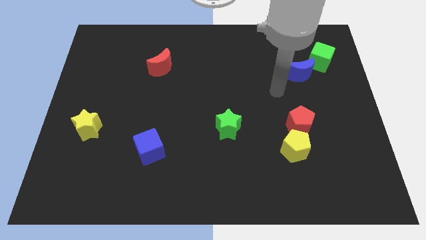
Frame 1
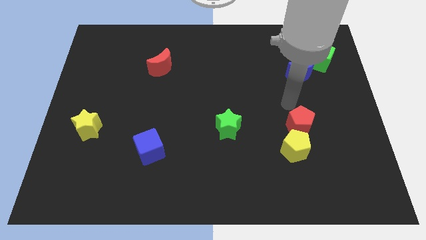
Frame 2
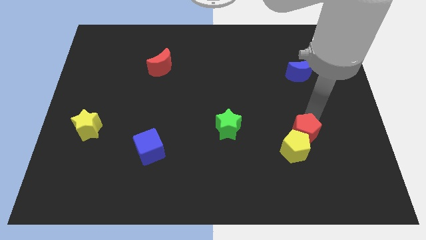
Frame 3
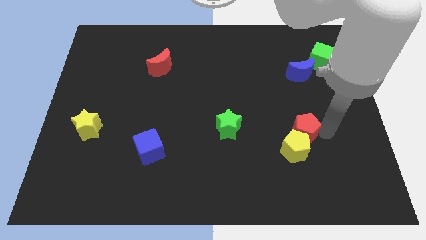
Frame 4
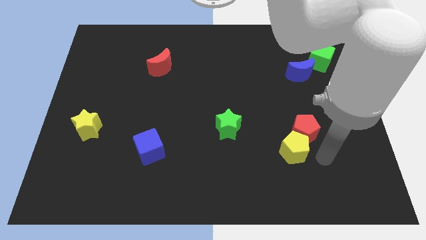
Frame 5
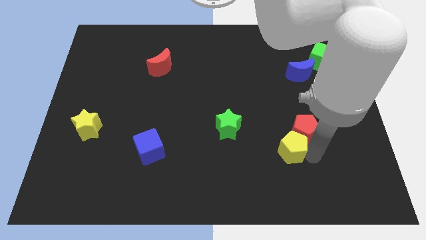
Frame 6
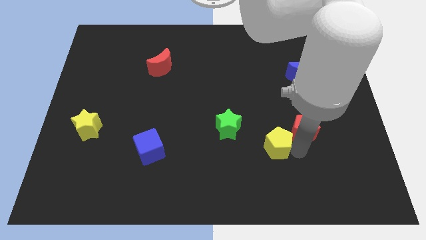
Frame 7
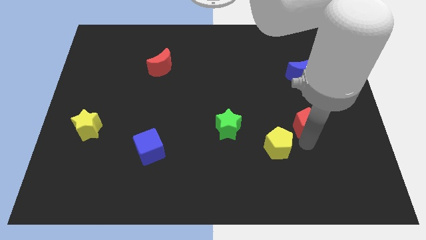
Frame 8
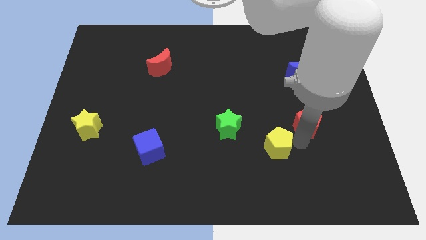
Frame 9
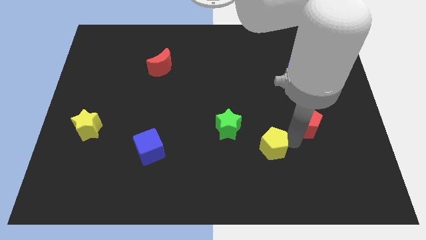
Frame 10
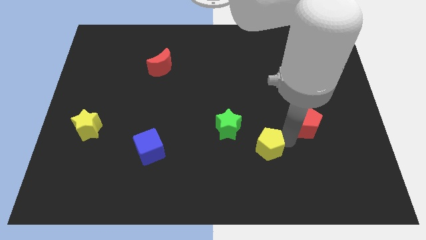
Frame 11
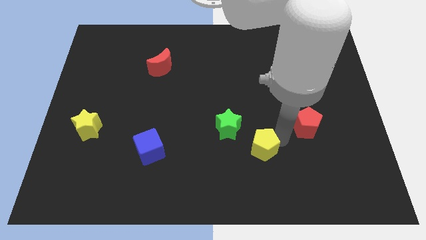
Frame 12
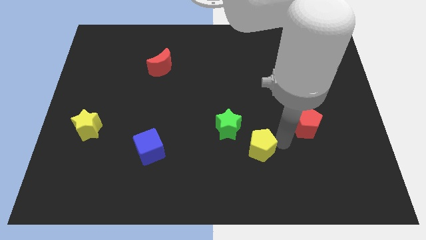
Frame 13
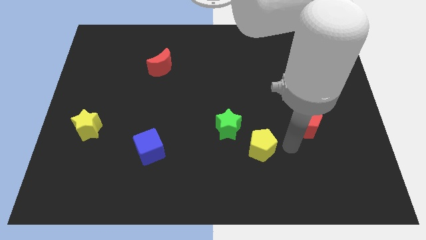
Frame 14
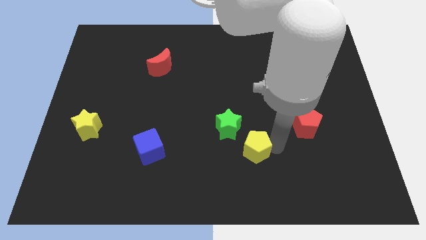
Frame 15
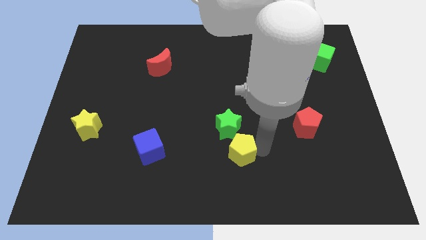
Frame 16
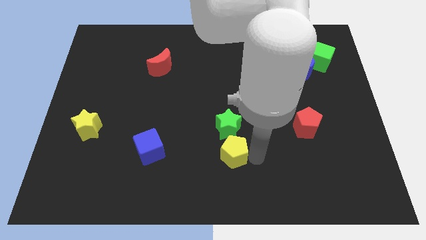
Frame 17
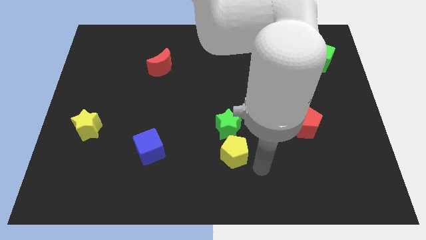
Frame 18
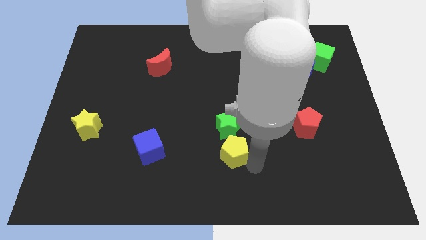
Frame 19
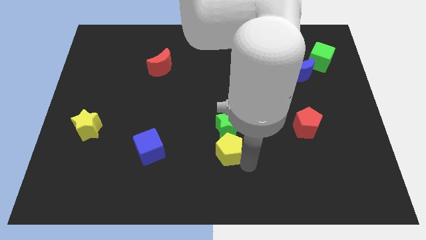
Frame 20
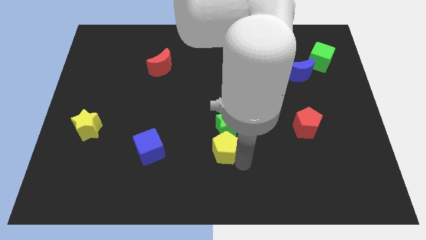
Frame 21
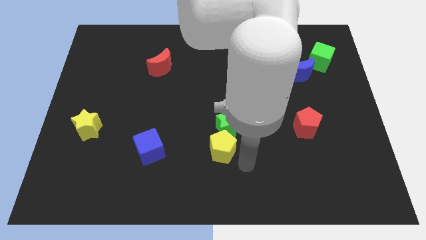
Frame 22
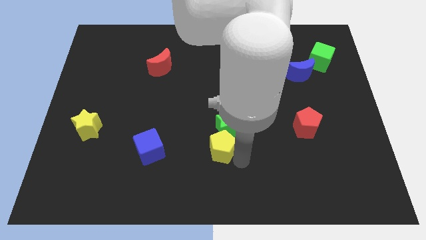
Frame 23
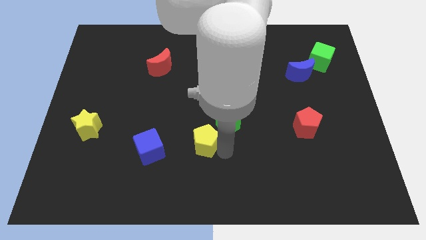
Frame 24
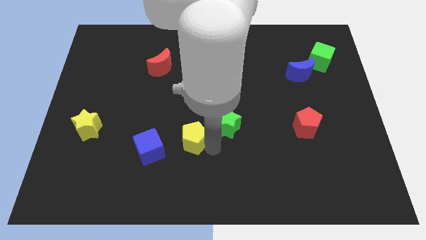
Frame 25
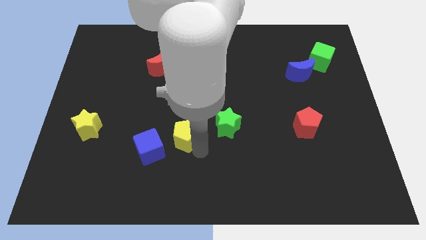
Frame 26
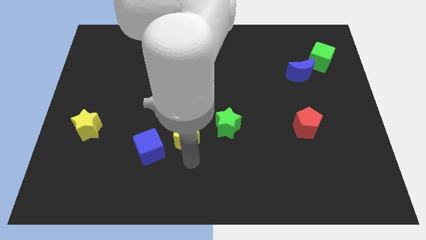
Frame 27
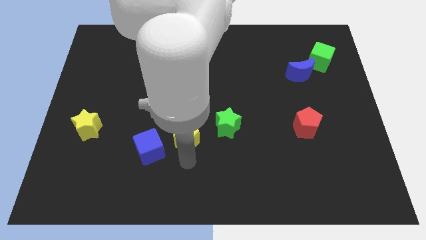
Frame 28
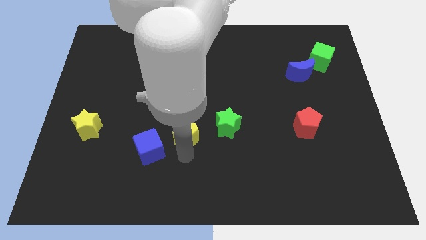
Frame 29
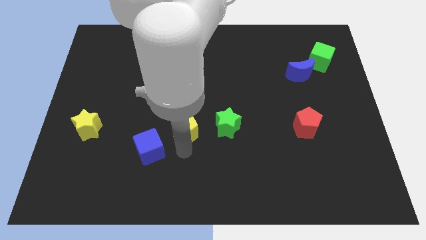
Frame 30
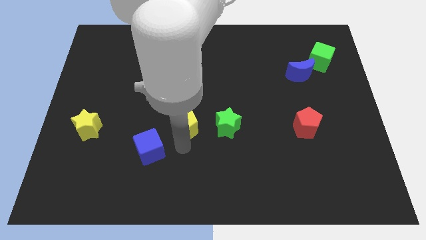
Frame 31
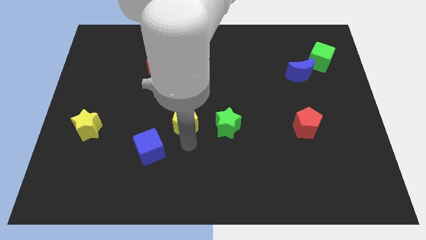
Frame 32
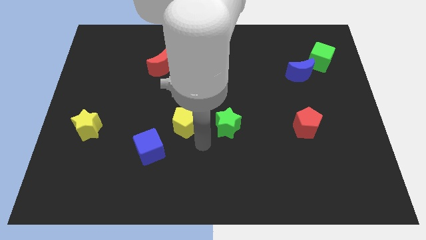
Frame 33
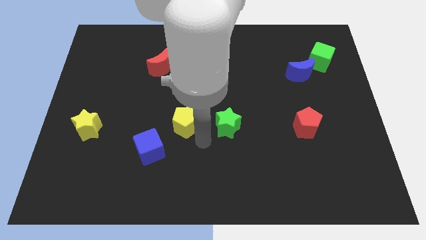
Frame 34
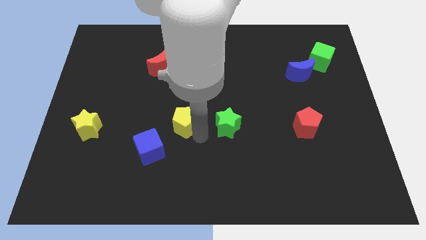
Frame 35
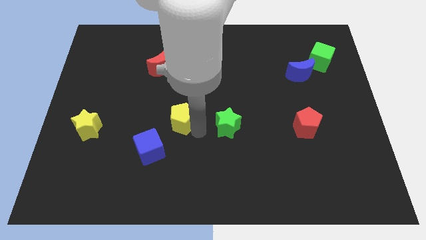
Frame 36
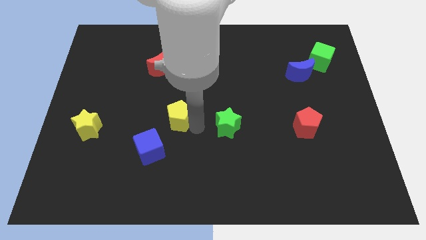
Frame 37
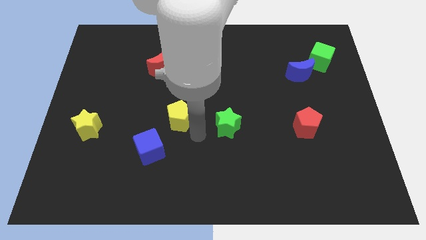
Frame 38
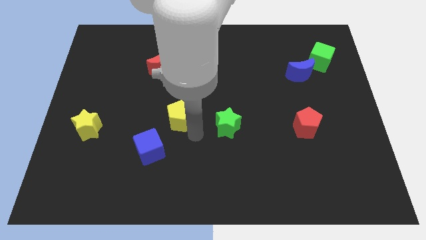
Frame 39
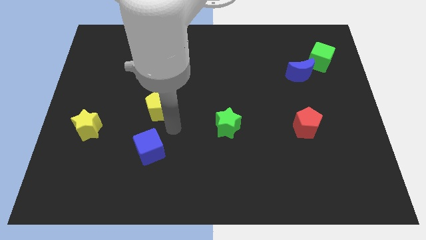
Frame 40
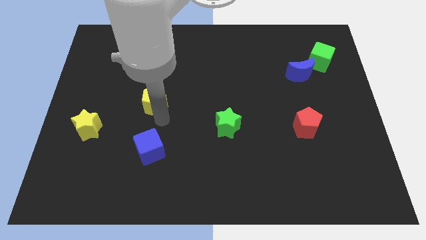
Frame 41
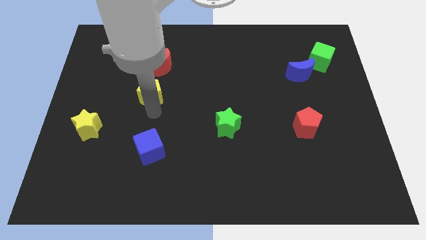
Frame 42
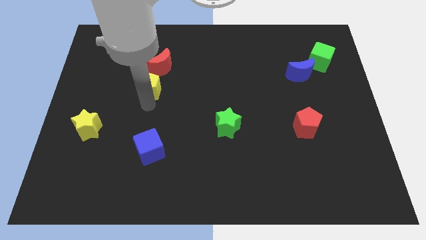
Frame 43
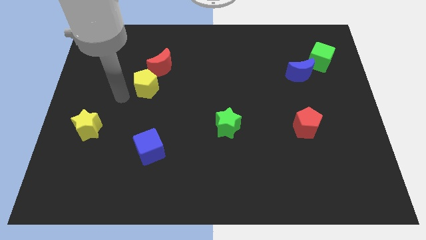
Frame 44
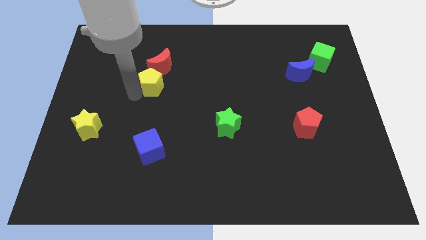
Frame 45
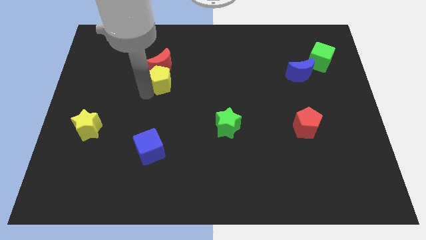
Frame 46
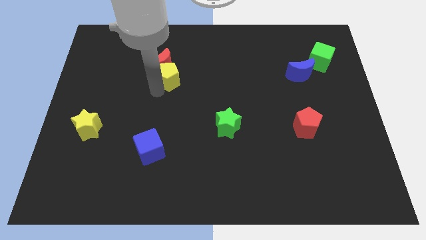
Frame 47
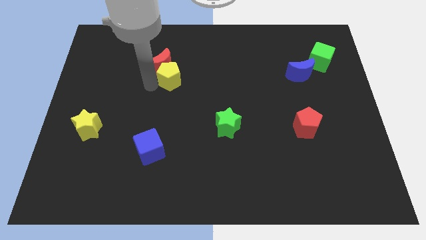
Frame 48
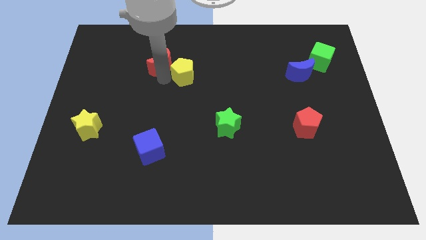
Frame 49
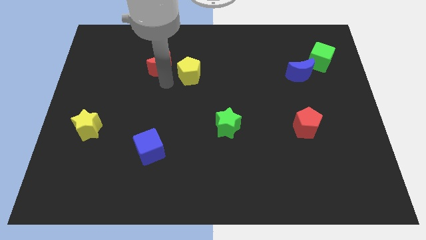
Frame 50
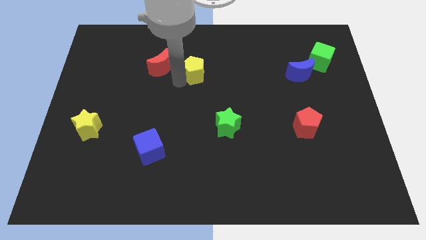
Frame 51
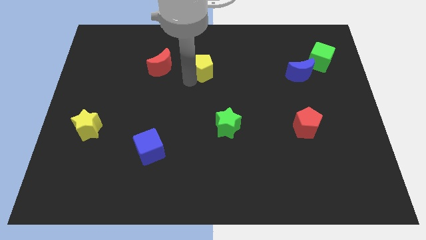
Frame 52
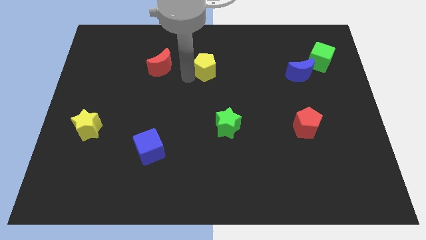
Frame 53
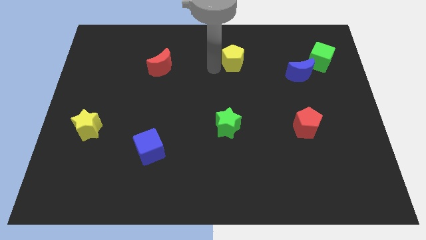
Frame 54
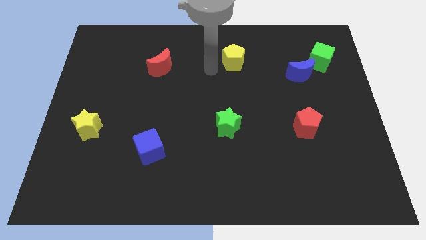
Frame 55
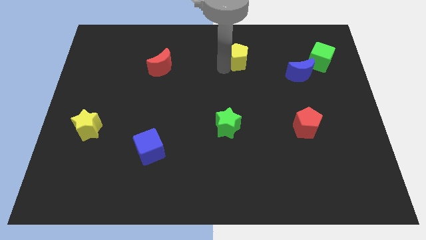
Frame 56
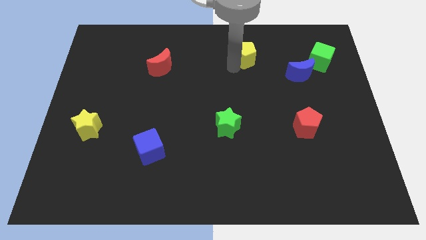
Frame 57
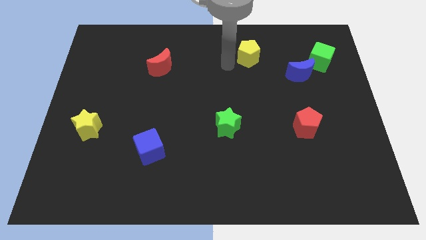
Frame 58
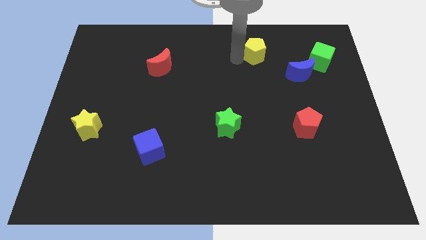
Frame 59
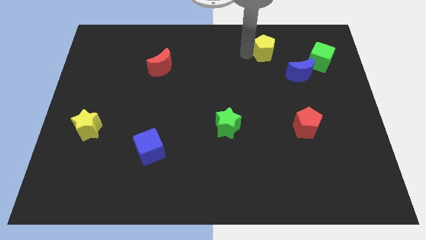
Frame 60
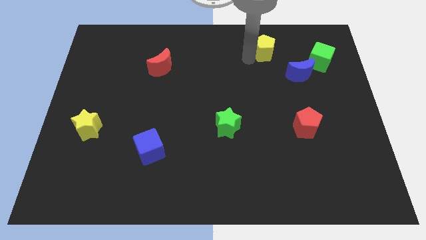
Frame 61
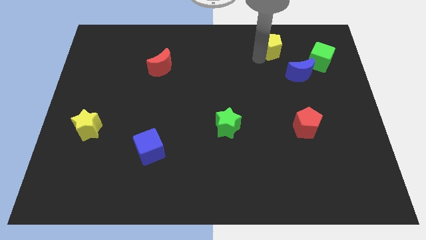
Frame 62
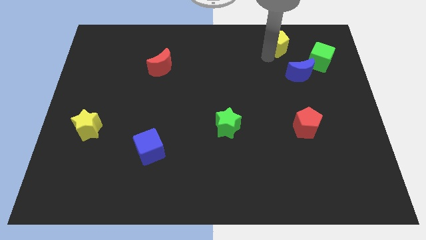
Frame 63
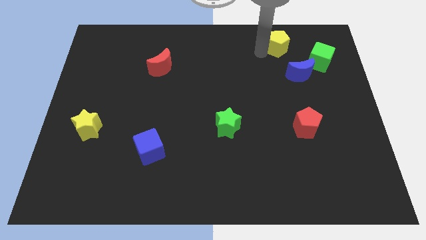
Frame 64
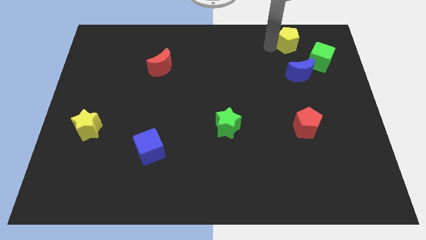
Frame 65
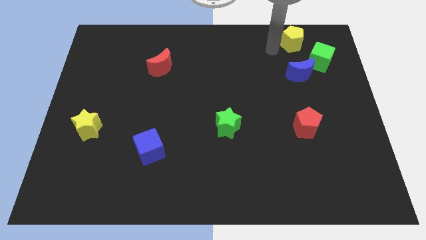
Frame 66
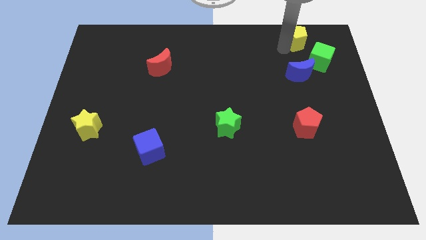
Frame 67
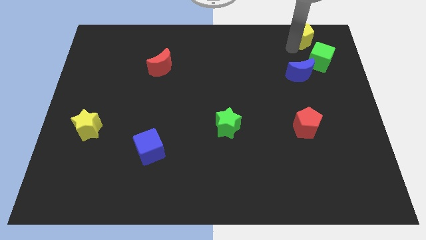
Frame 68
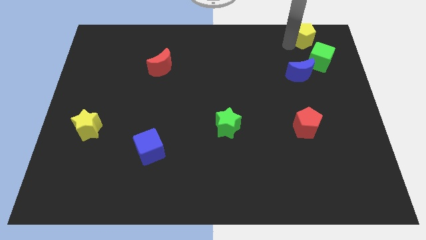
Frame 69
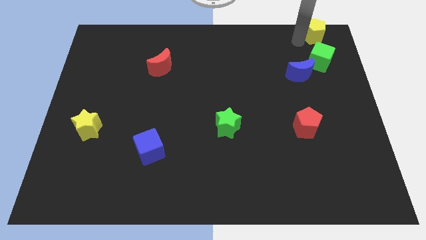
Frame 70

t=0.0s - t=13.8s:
move the yellow pentagon to the upper right corner
